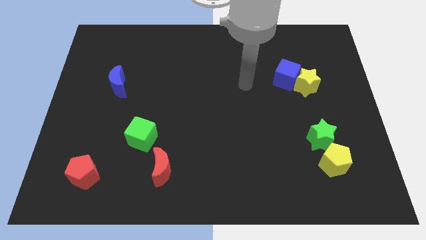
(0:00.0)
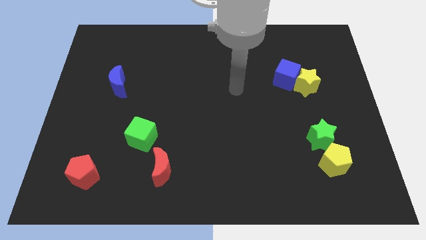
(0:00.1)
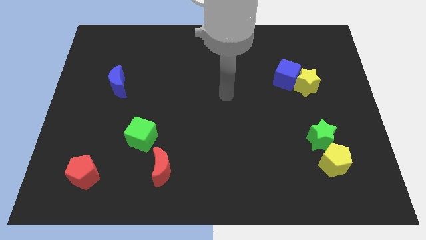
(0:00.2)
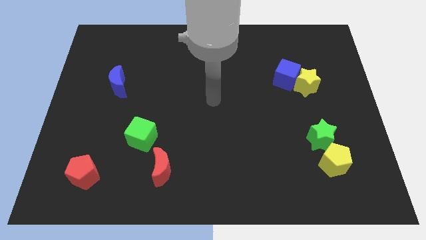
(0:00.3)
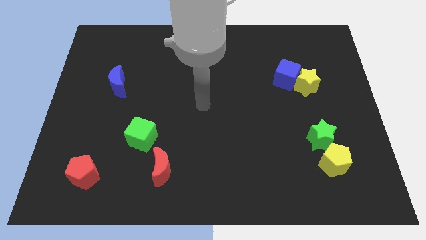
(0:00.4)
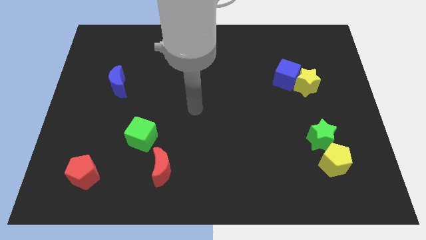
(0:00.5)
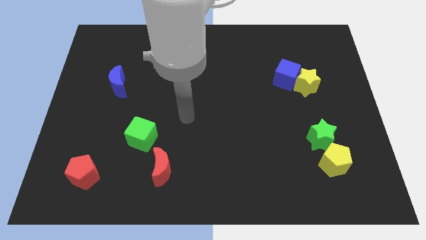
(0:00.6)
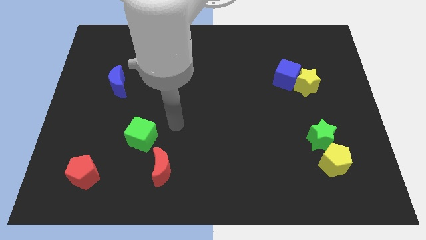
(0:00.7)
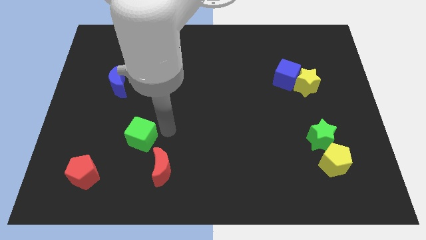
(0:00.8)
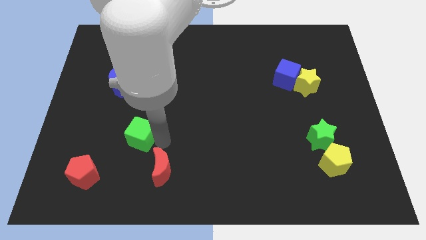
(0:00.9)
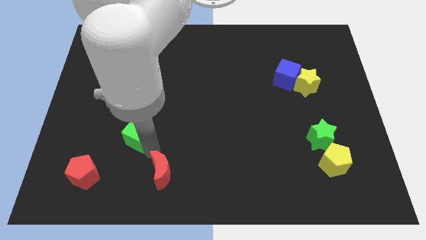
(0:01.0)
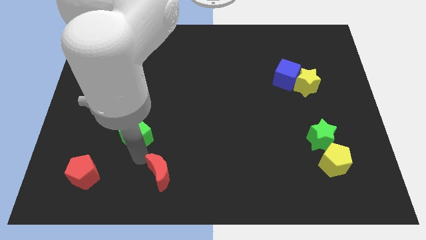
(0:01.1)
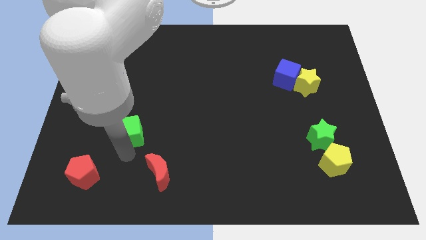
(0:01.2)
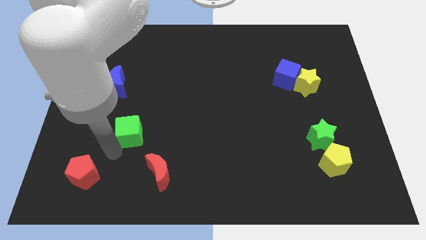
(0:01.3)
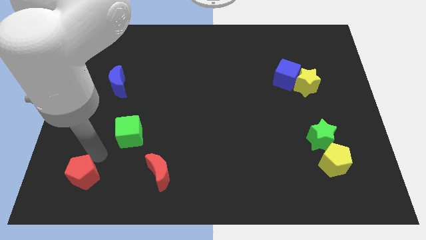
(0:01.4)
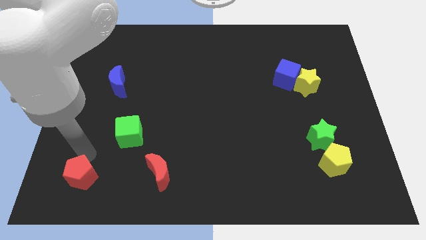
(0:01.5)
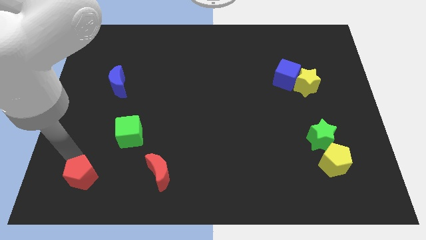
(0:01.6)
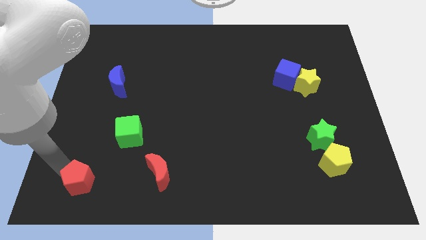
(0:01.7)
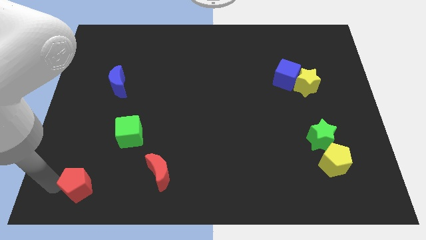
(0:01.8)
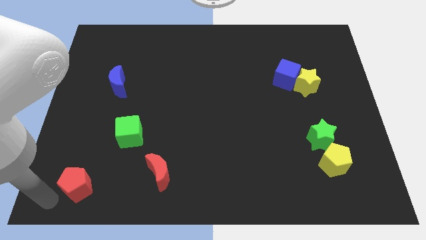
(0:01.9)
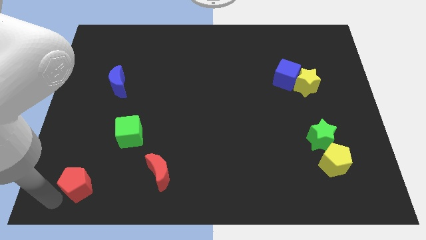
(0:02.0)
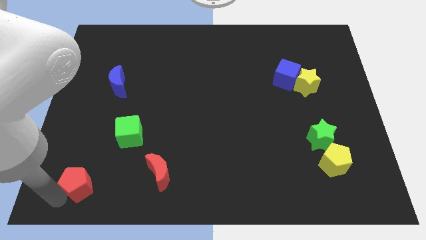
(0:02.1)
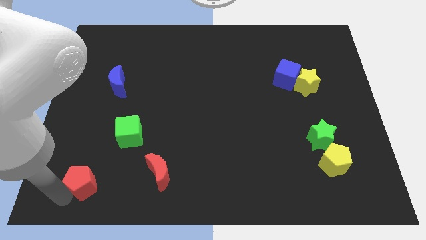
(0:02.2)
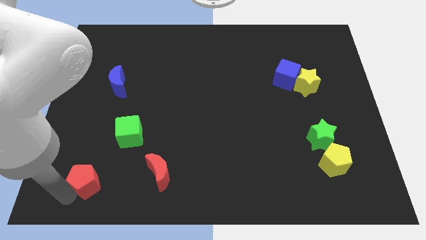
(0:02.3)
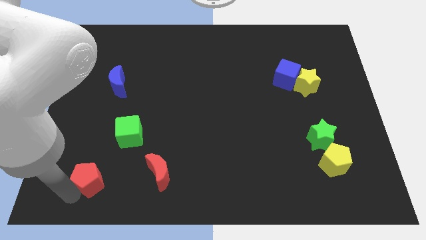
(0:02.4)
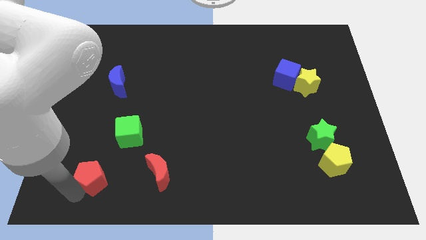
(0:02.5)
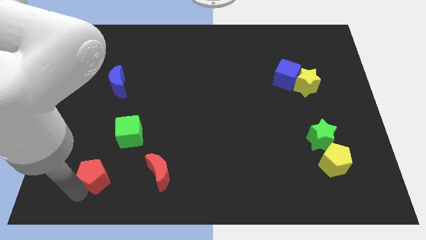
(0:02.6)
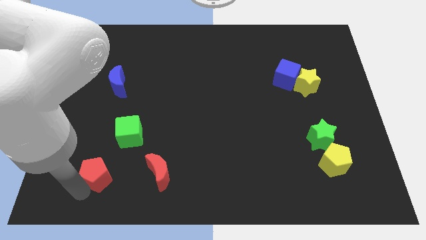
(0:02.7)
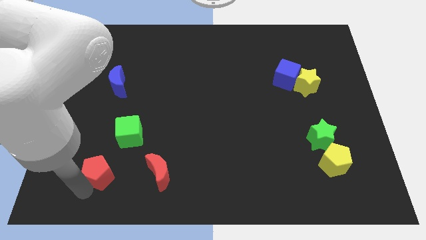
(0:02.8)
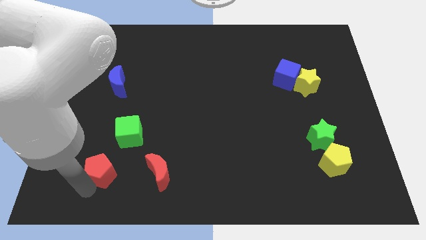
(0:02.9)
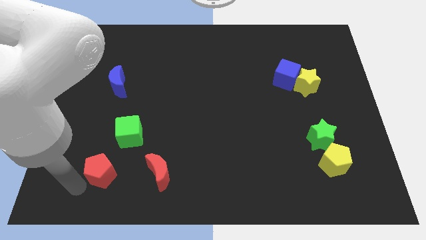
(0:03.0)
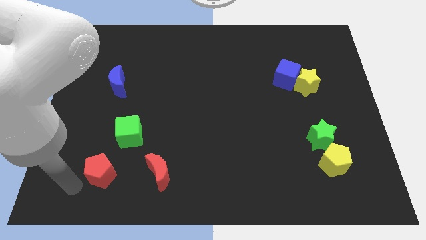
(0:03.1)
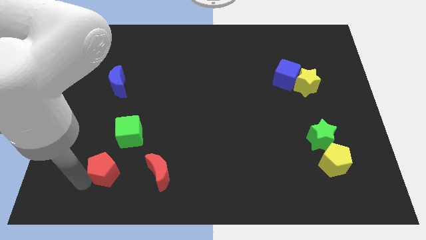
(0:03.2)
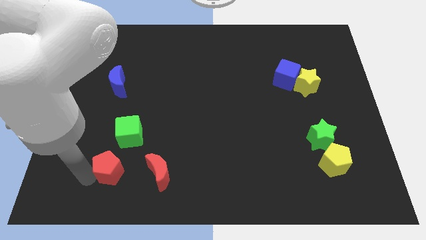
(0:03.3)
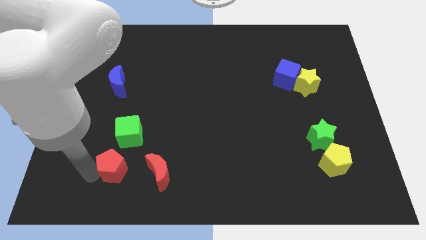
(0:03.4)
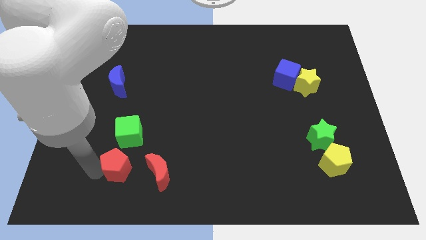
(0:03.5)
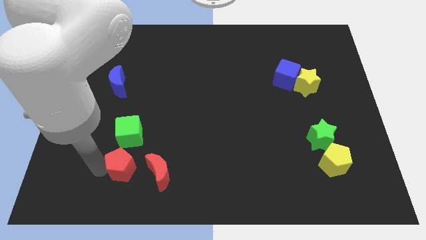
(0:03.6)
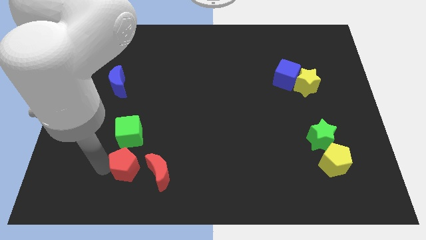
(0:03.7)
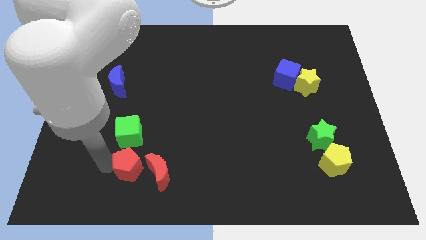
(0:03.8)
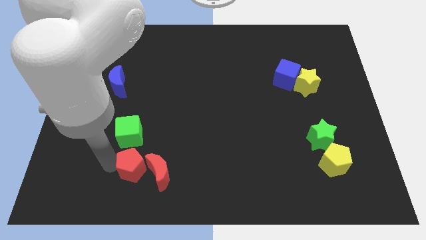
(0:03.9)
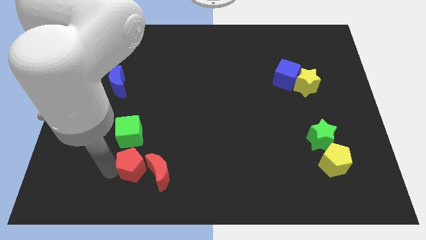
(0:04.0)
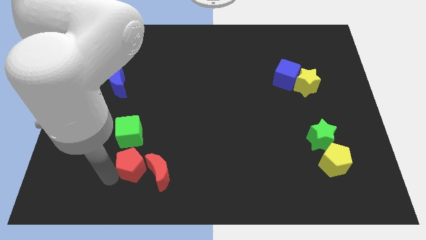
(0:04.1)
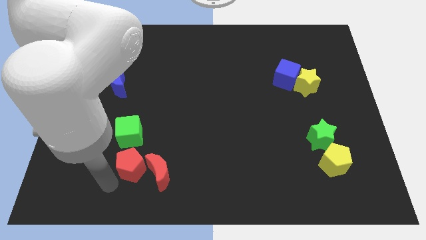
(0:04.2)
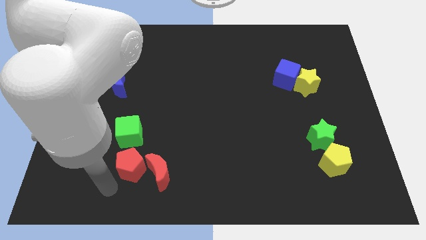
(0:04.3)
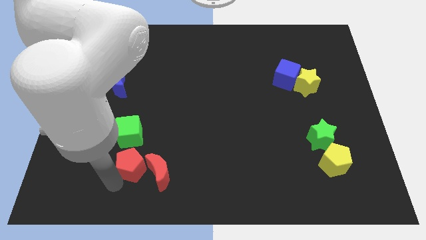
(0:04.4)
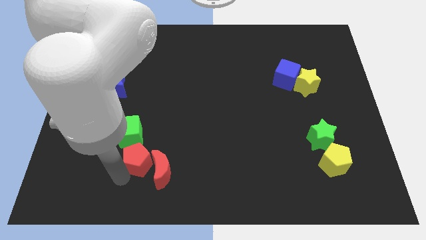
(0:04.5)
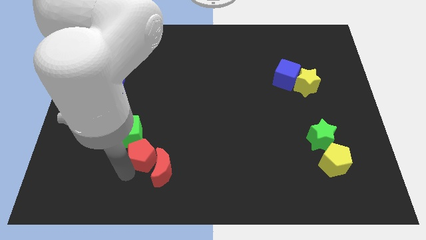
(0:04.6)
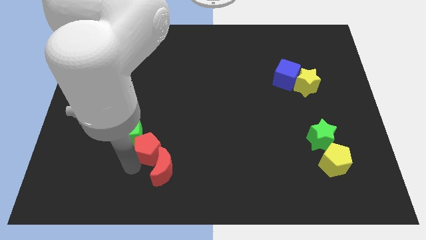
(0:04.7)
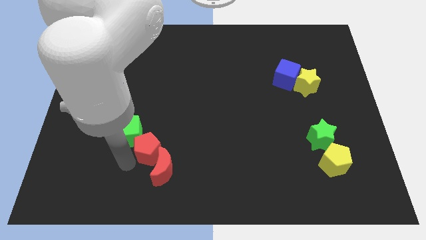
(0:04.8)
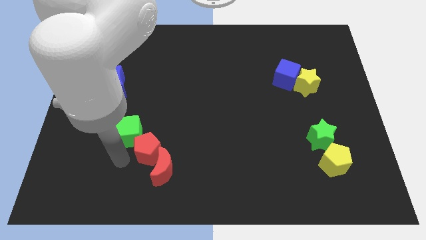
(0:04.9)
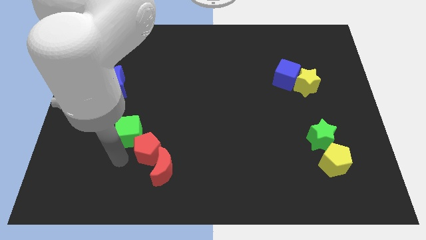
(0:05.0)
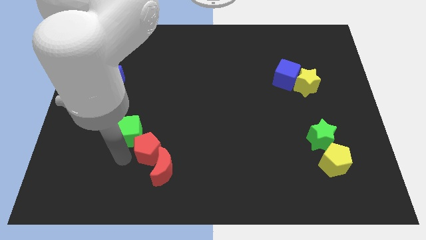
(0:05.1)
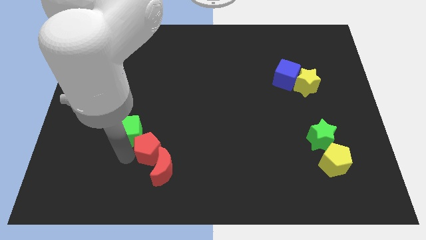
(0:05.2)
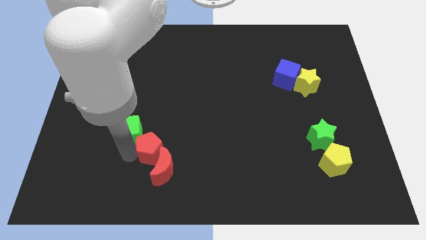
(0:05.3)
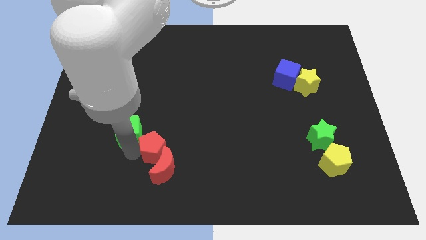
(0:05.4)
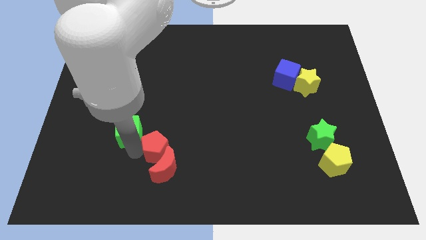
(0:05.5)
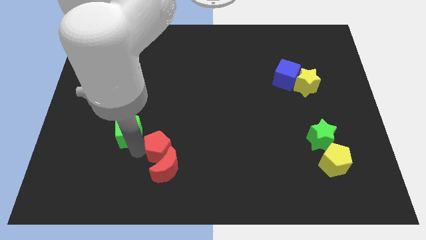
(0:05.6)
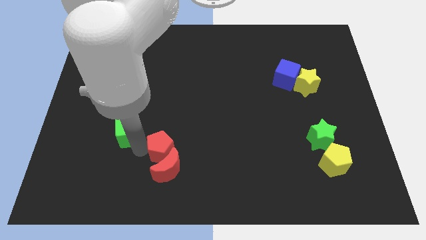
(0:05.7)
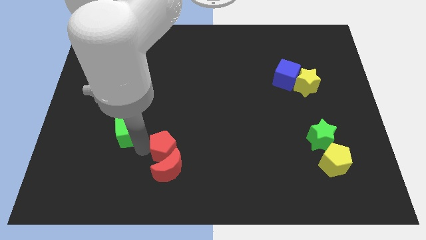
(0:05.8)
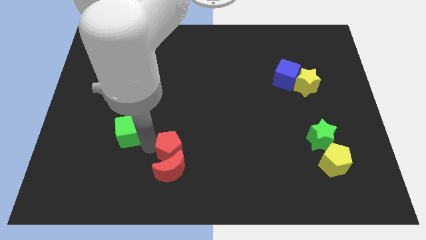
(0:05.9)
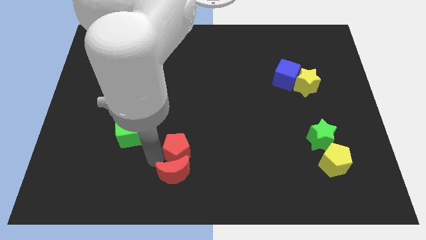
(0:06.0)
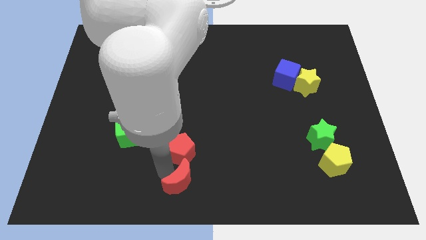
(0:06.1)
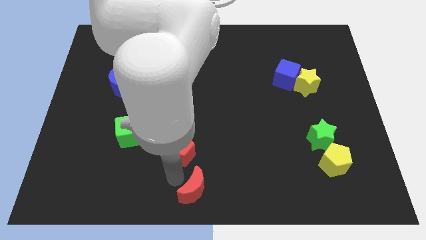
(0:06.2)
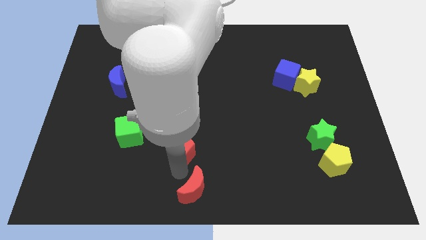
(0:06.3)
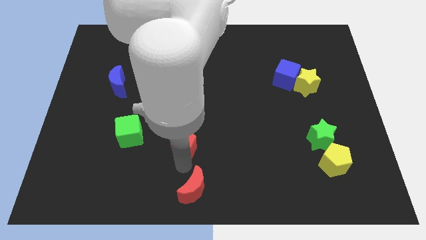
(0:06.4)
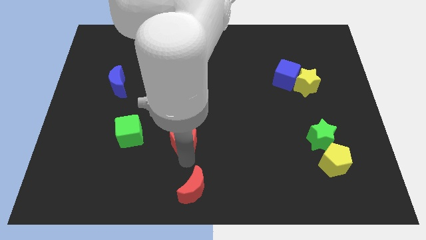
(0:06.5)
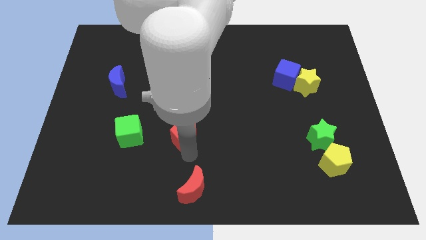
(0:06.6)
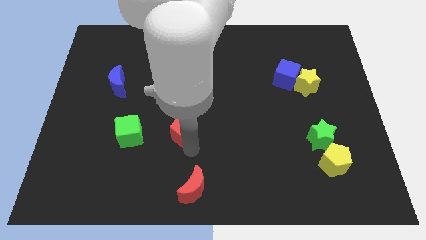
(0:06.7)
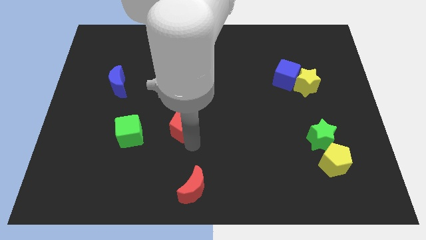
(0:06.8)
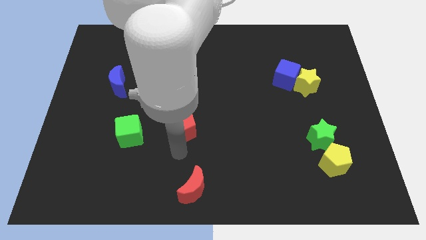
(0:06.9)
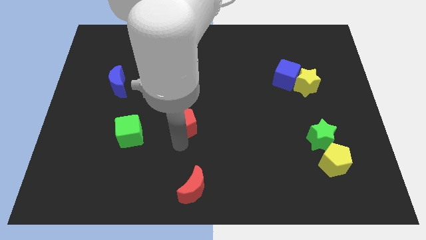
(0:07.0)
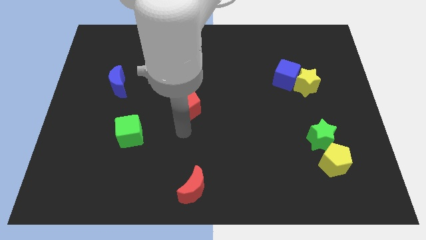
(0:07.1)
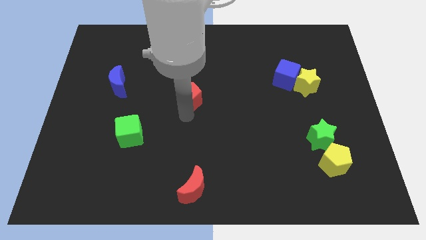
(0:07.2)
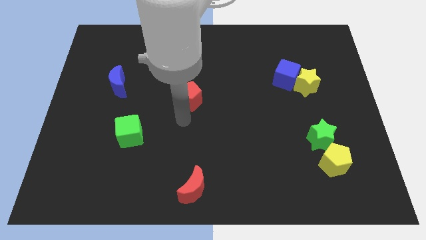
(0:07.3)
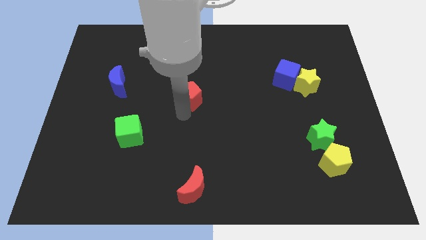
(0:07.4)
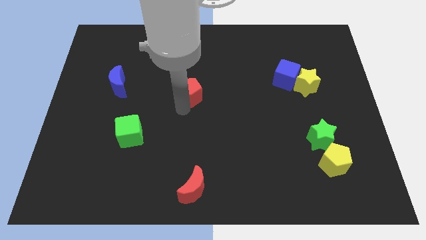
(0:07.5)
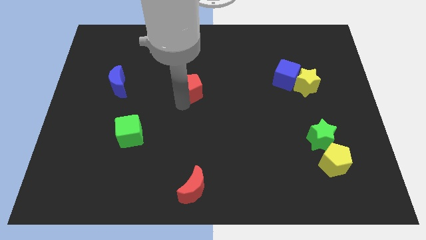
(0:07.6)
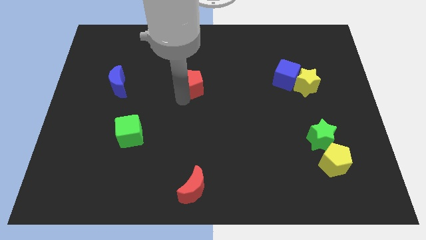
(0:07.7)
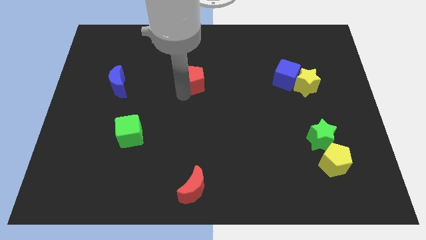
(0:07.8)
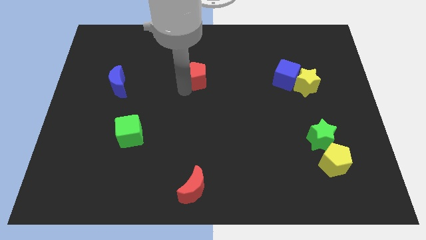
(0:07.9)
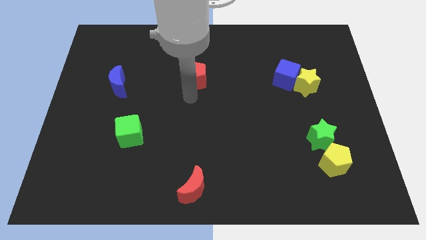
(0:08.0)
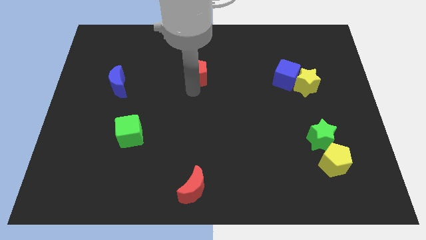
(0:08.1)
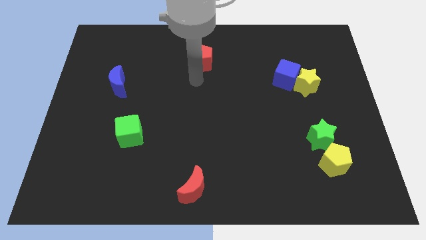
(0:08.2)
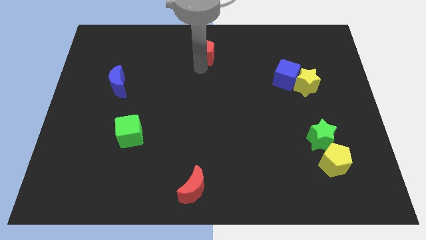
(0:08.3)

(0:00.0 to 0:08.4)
move the red pentagon to the top side
